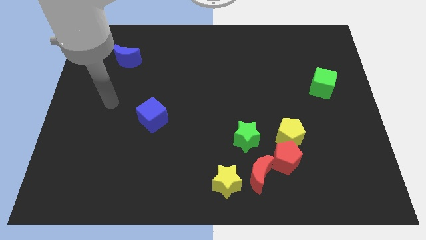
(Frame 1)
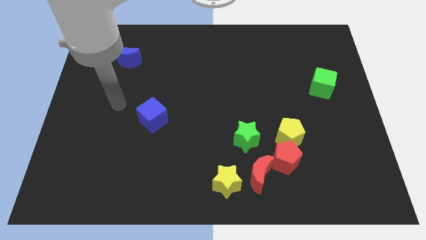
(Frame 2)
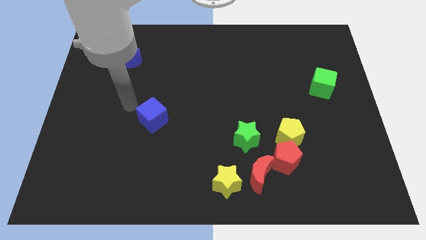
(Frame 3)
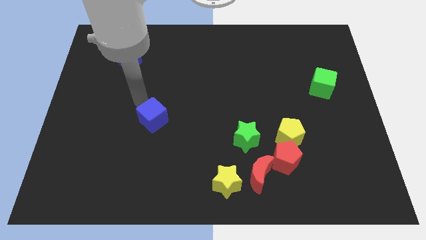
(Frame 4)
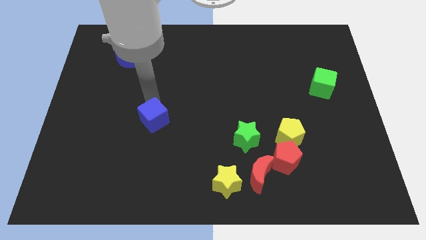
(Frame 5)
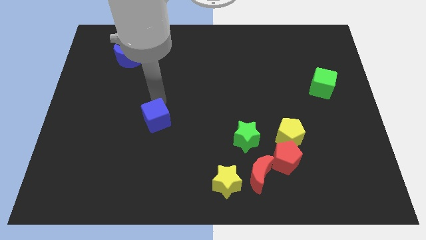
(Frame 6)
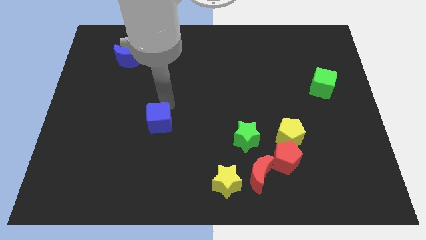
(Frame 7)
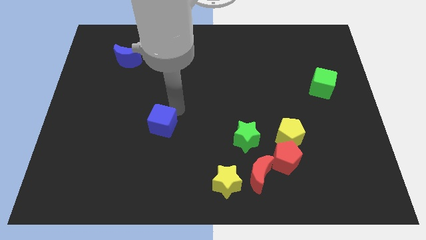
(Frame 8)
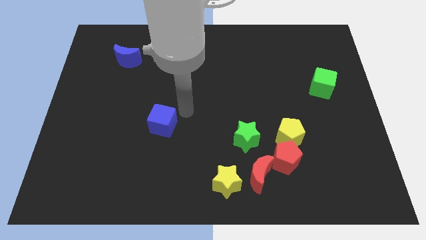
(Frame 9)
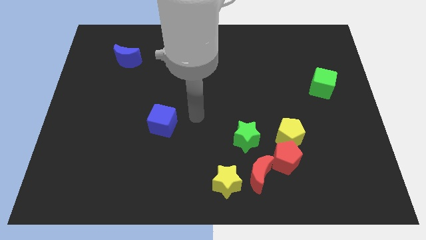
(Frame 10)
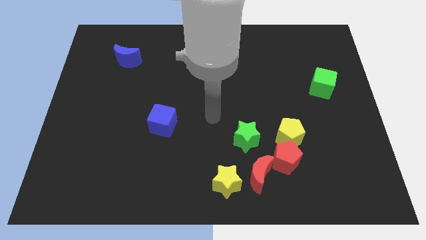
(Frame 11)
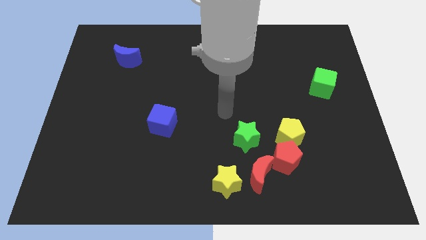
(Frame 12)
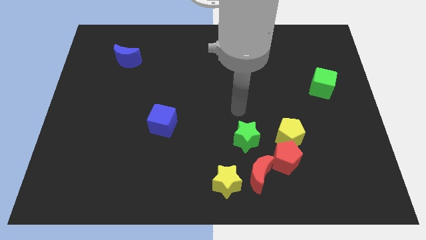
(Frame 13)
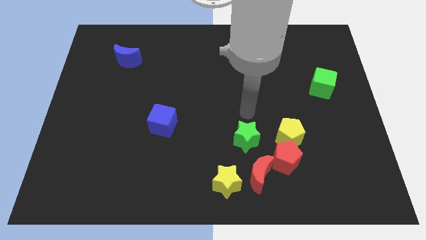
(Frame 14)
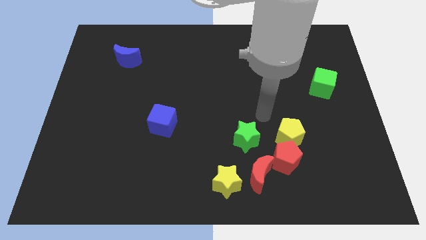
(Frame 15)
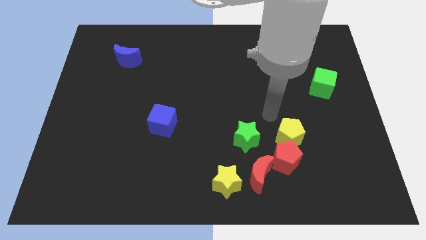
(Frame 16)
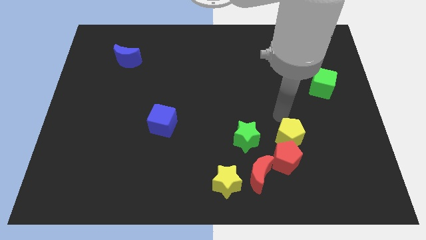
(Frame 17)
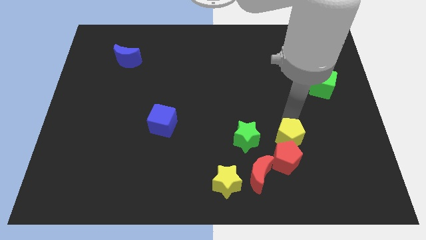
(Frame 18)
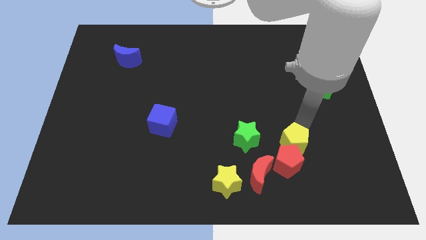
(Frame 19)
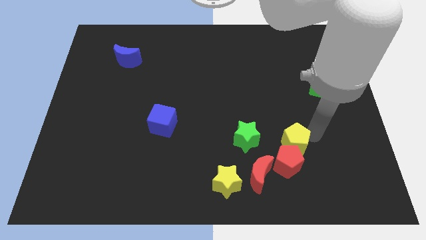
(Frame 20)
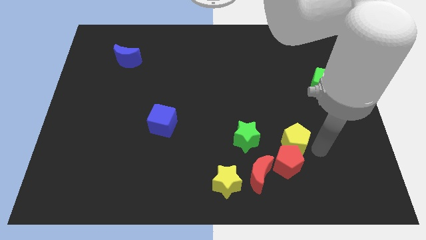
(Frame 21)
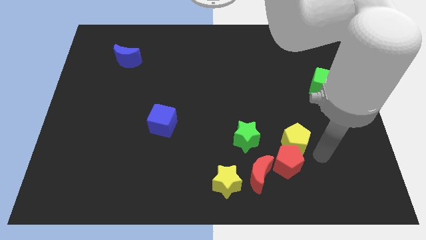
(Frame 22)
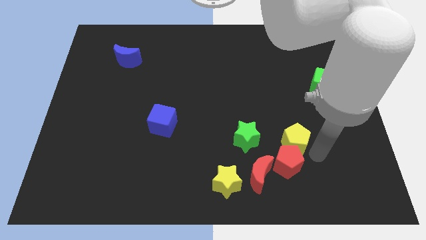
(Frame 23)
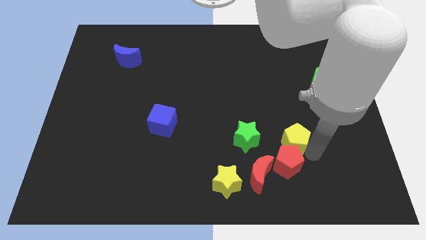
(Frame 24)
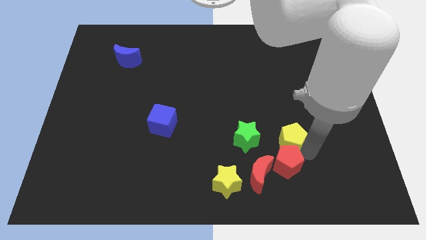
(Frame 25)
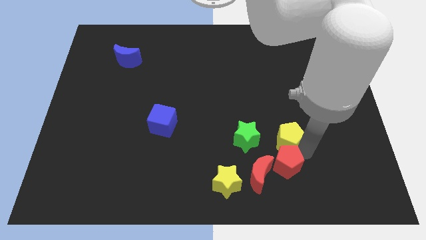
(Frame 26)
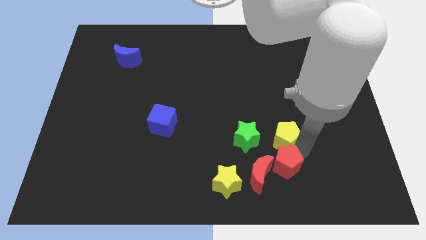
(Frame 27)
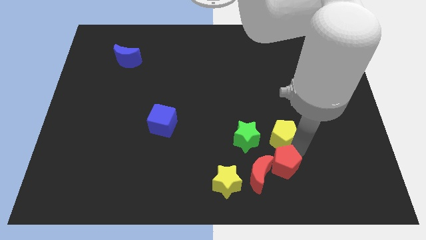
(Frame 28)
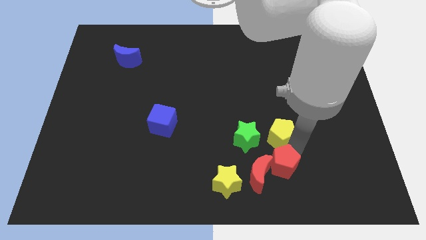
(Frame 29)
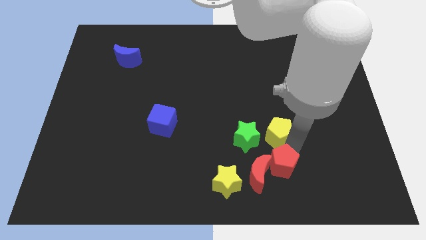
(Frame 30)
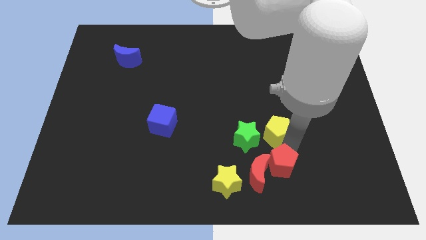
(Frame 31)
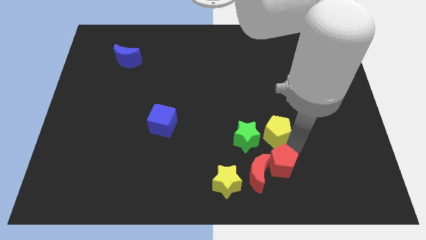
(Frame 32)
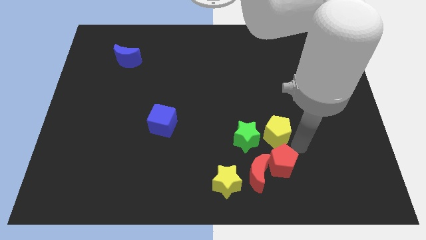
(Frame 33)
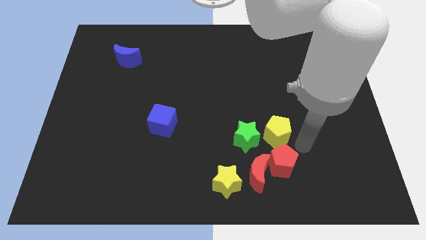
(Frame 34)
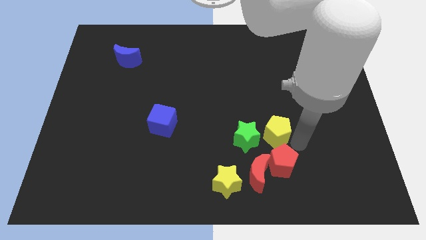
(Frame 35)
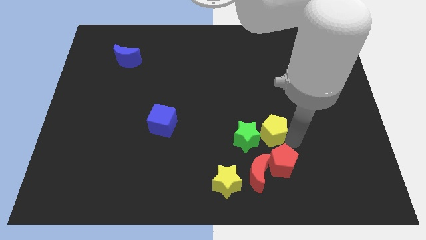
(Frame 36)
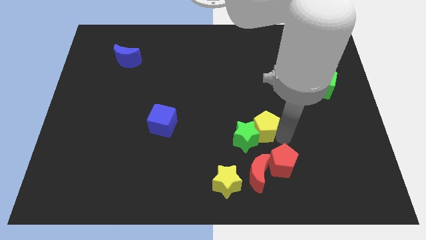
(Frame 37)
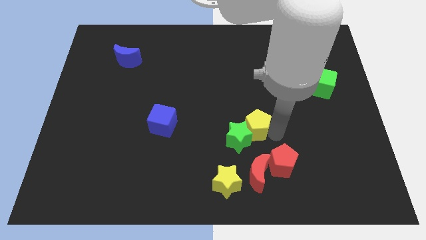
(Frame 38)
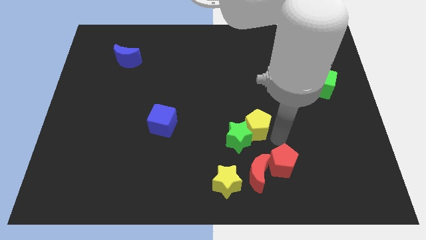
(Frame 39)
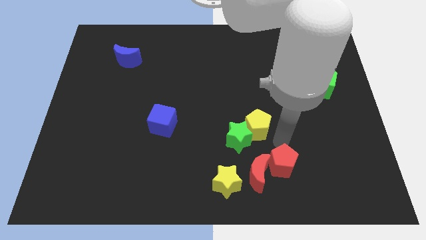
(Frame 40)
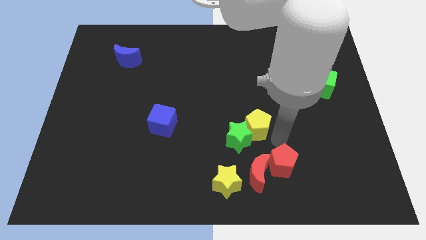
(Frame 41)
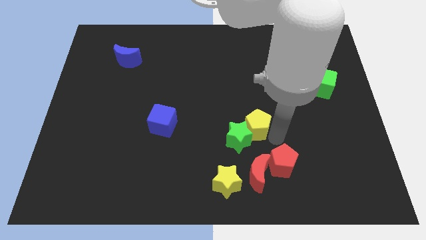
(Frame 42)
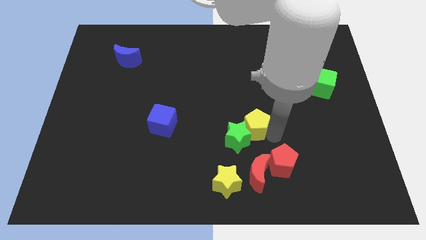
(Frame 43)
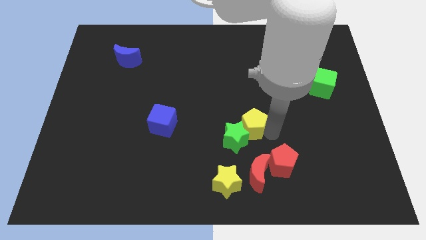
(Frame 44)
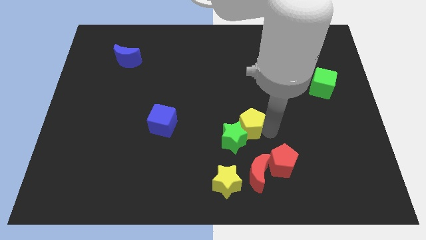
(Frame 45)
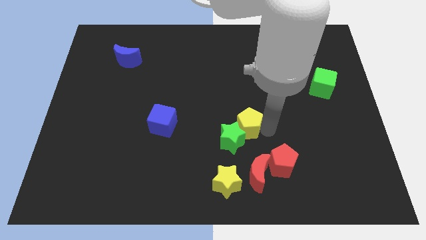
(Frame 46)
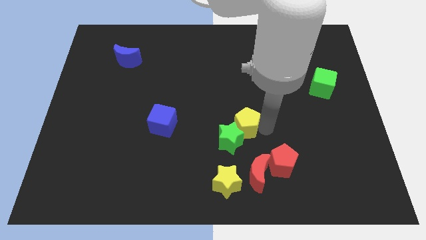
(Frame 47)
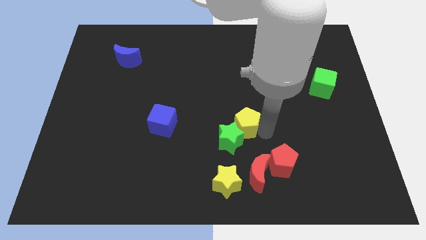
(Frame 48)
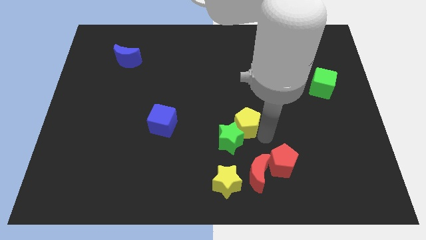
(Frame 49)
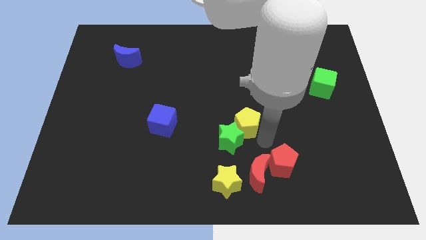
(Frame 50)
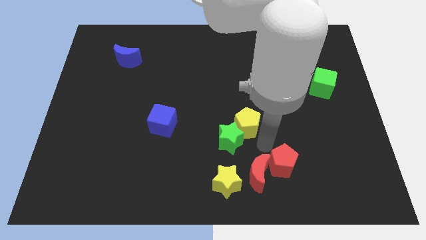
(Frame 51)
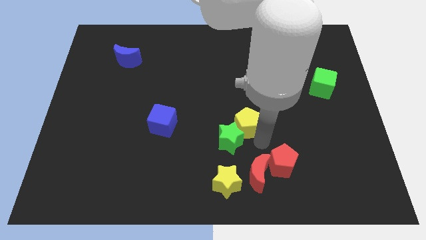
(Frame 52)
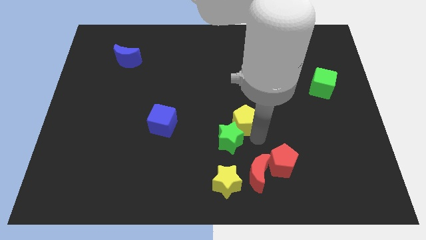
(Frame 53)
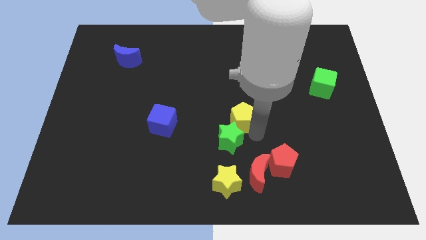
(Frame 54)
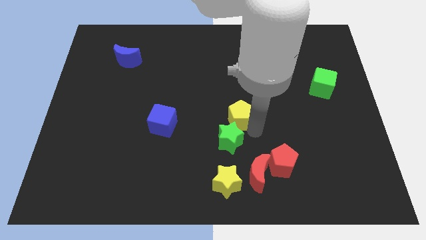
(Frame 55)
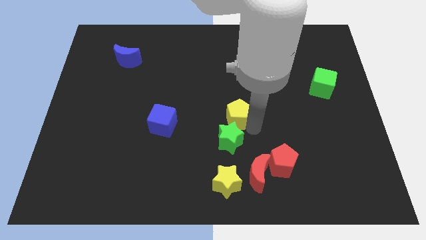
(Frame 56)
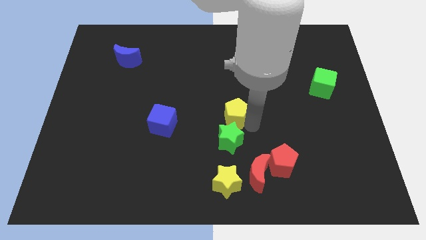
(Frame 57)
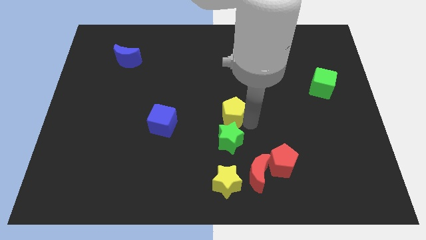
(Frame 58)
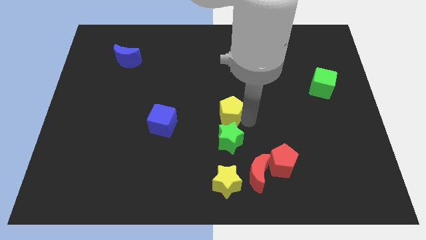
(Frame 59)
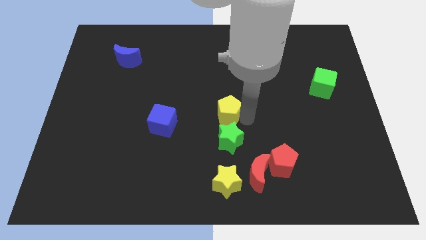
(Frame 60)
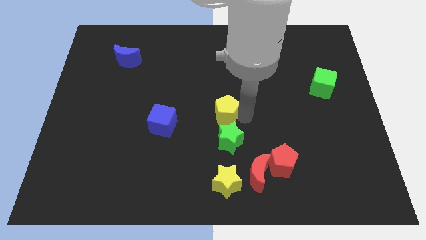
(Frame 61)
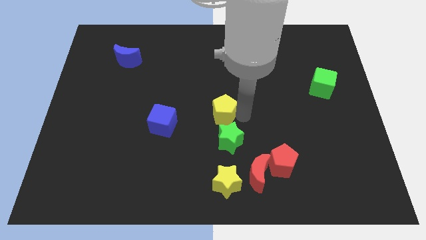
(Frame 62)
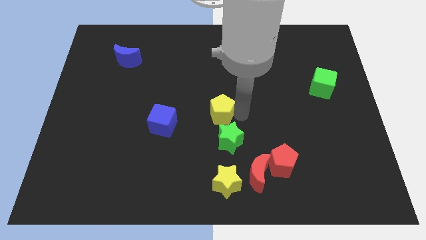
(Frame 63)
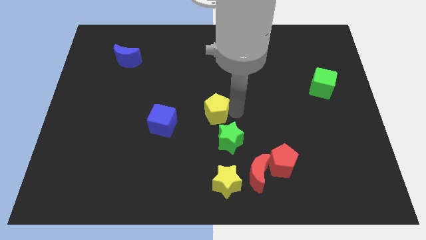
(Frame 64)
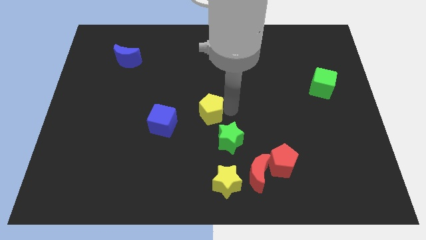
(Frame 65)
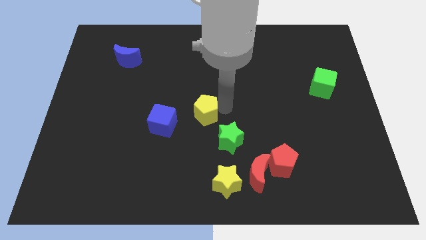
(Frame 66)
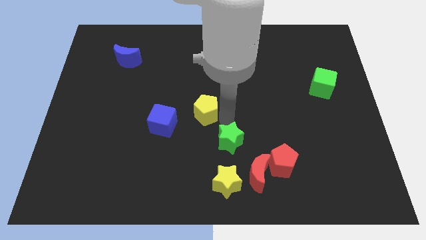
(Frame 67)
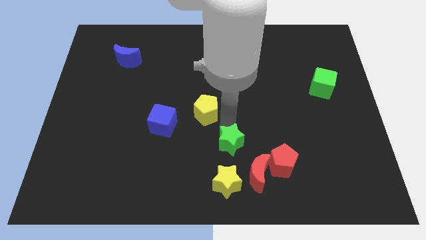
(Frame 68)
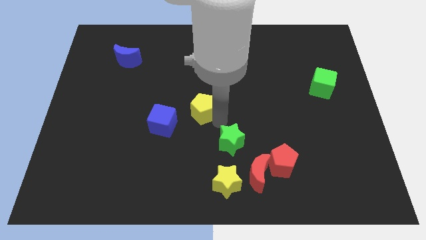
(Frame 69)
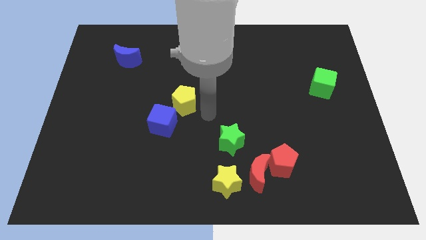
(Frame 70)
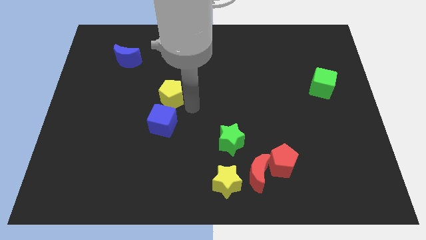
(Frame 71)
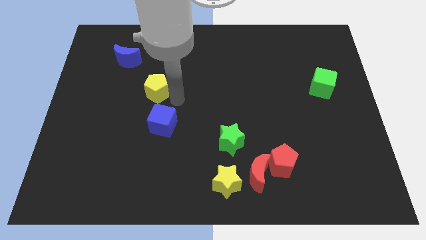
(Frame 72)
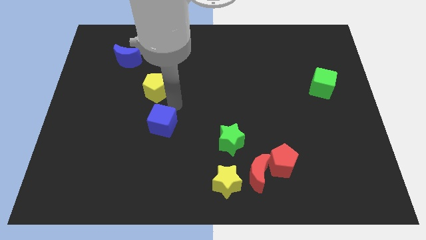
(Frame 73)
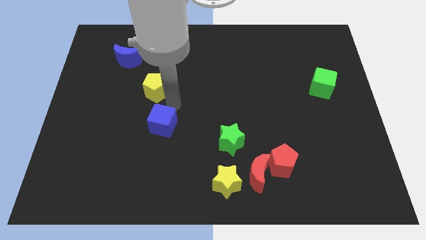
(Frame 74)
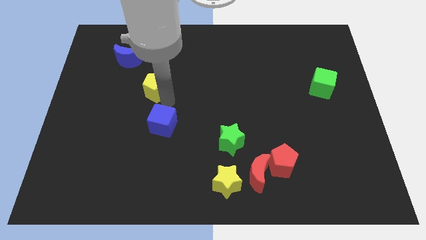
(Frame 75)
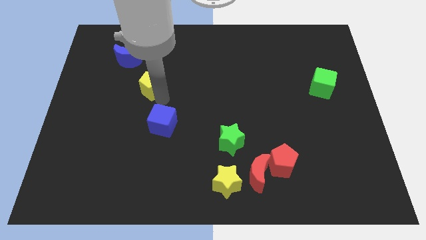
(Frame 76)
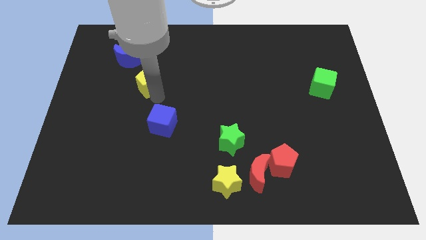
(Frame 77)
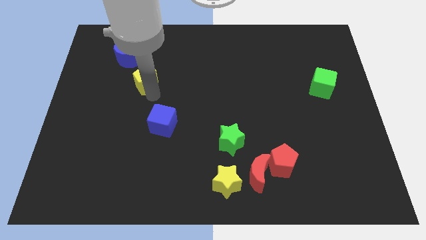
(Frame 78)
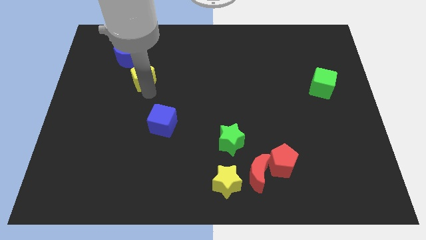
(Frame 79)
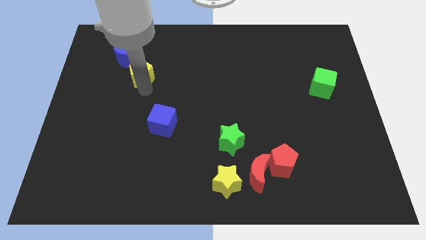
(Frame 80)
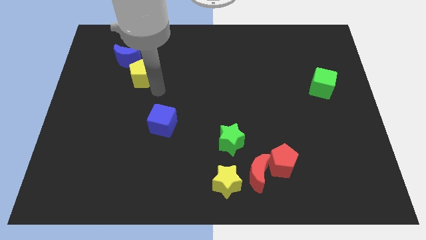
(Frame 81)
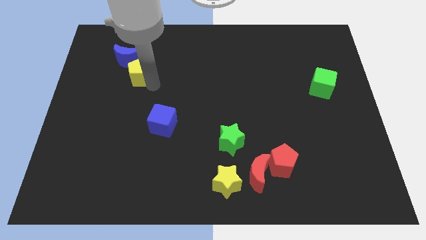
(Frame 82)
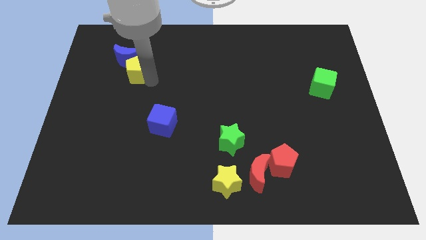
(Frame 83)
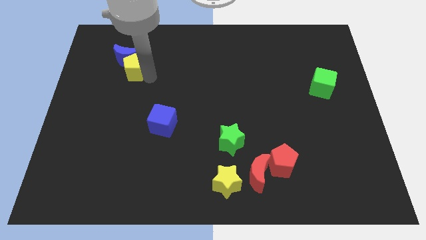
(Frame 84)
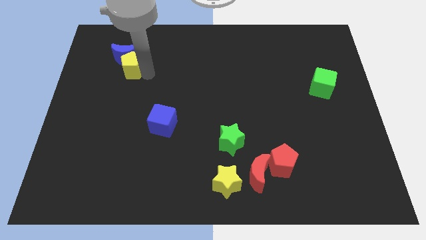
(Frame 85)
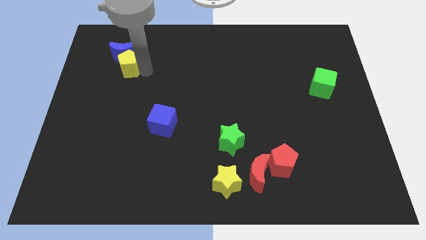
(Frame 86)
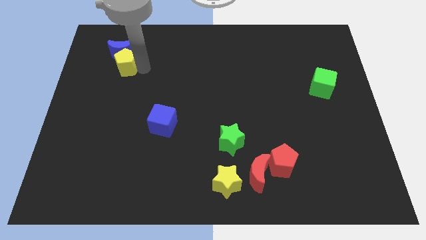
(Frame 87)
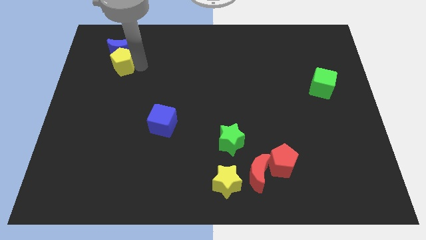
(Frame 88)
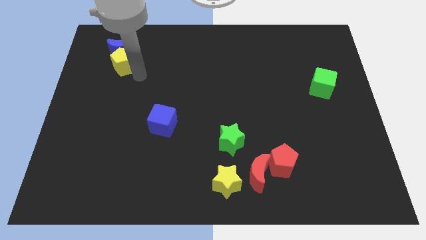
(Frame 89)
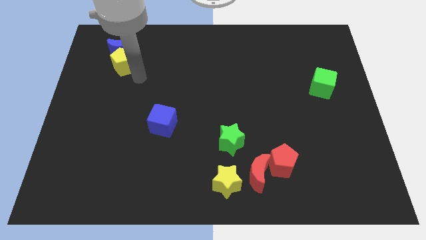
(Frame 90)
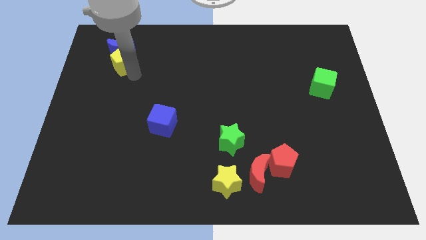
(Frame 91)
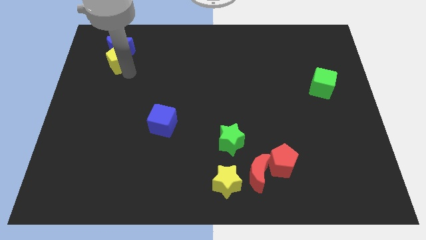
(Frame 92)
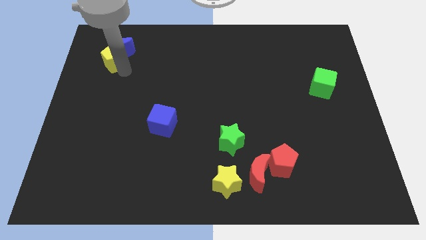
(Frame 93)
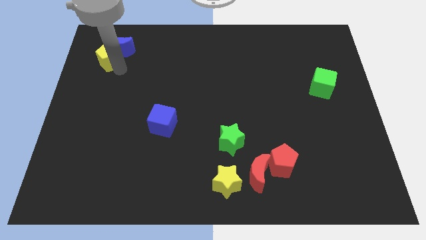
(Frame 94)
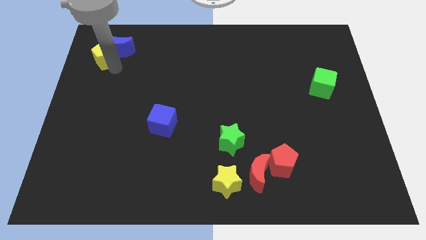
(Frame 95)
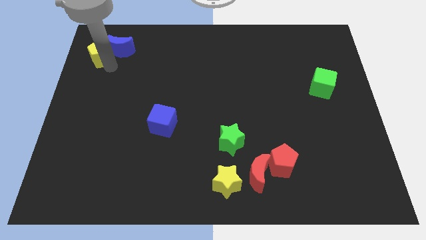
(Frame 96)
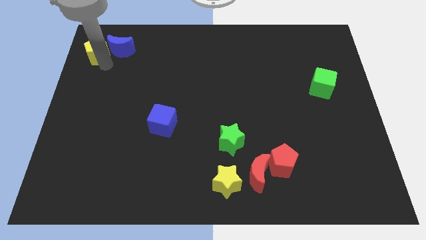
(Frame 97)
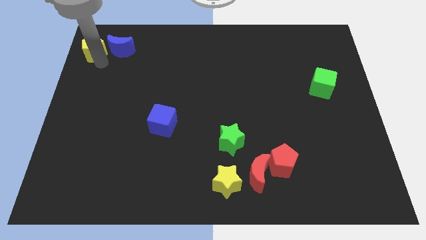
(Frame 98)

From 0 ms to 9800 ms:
push the yellow pentagon to the top left of the board
